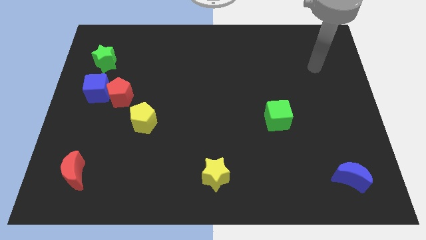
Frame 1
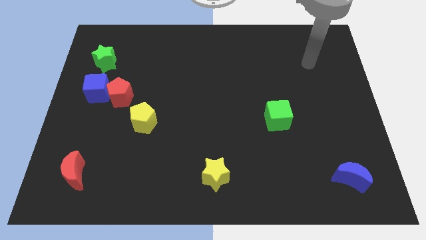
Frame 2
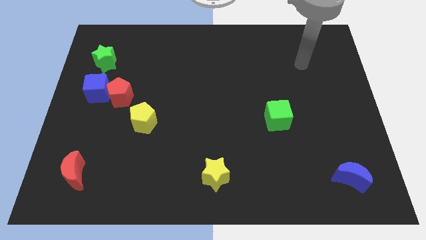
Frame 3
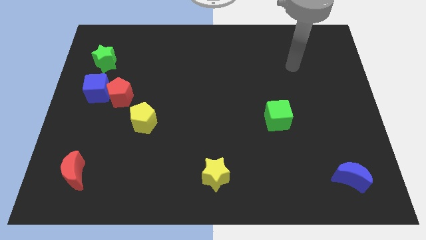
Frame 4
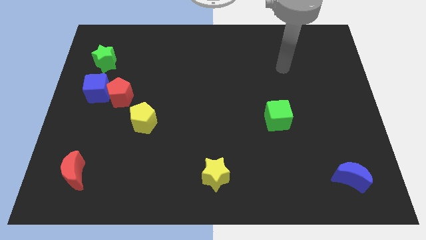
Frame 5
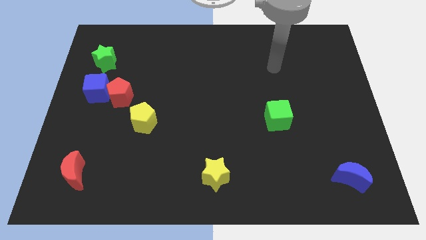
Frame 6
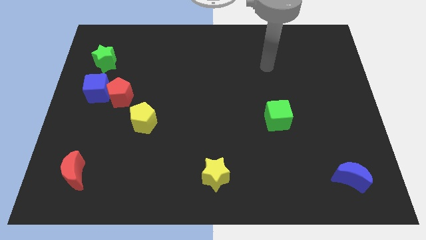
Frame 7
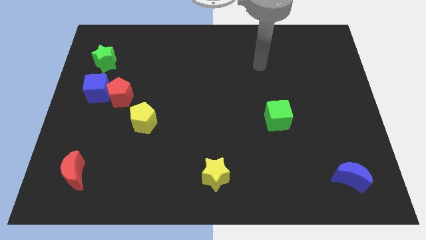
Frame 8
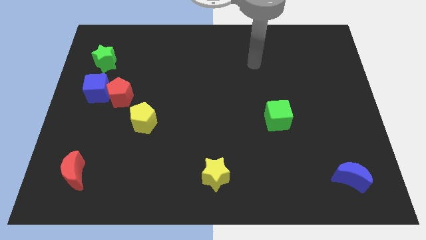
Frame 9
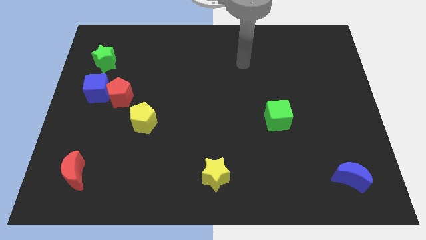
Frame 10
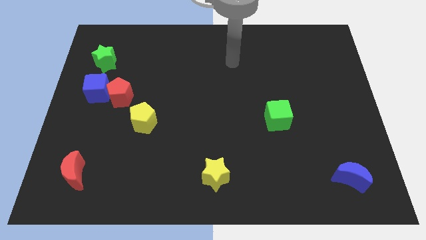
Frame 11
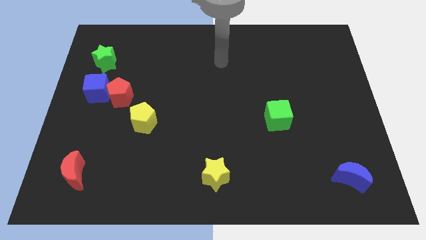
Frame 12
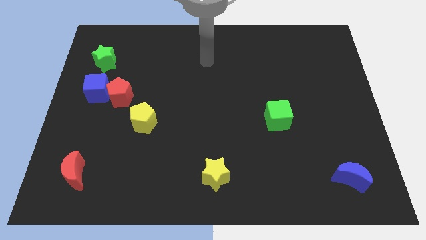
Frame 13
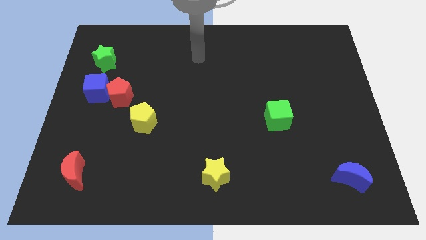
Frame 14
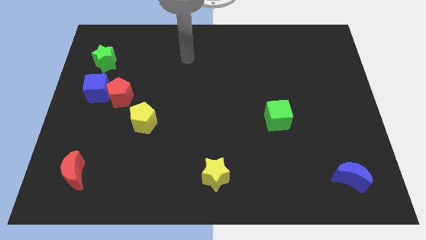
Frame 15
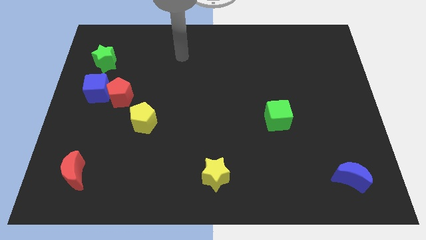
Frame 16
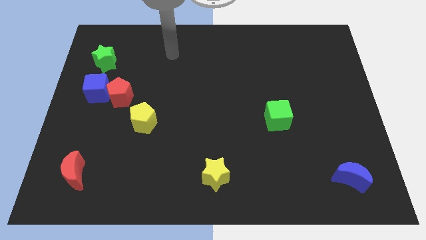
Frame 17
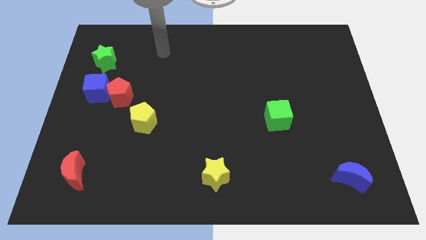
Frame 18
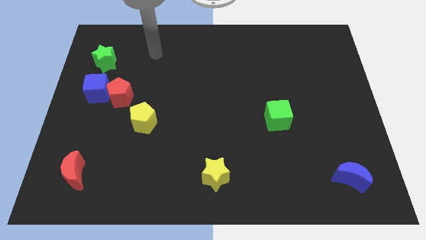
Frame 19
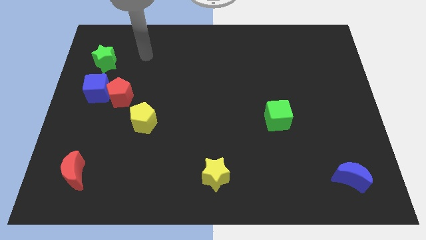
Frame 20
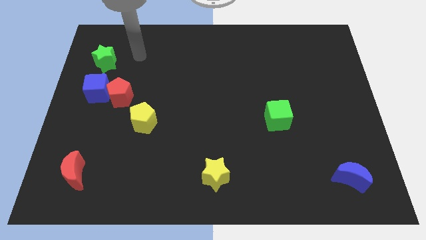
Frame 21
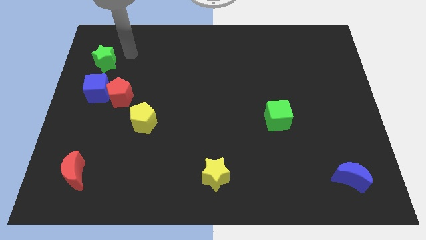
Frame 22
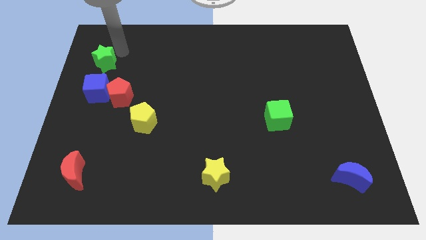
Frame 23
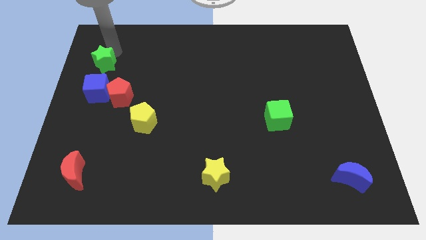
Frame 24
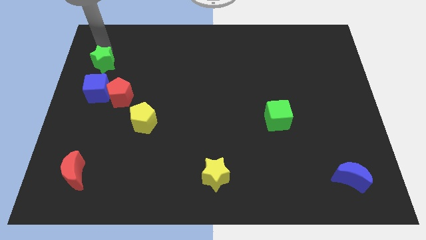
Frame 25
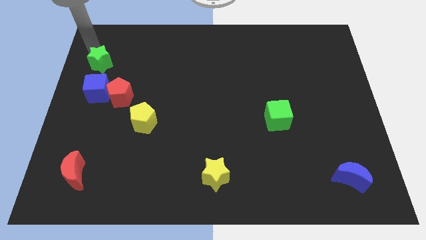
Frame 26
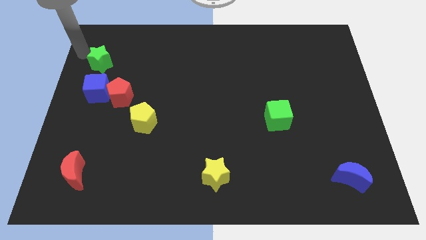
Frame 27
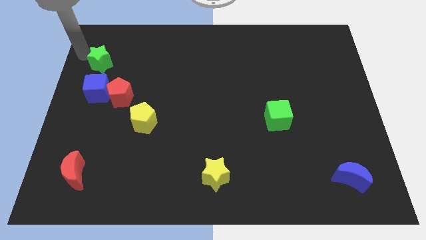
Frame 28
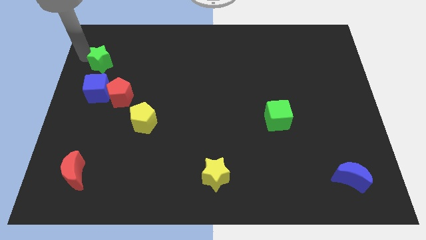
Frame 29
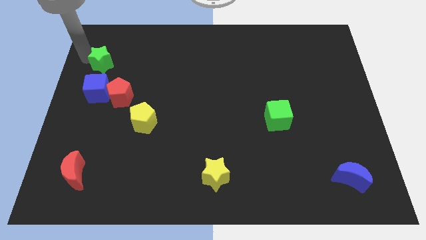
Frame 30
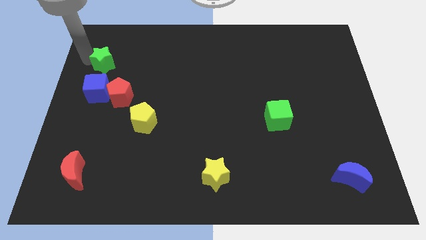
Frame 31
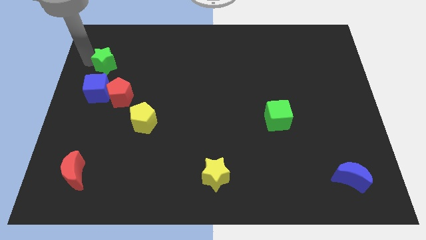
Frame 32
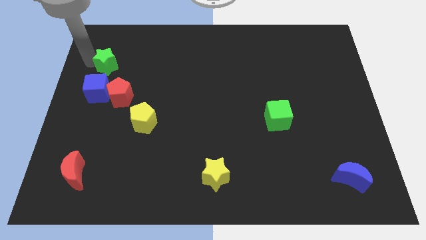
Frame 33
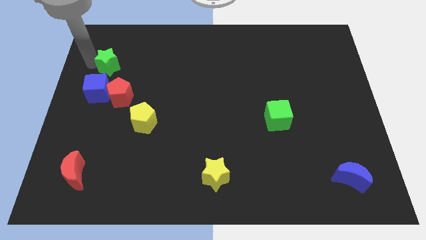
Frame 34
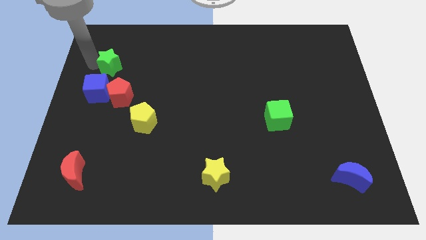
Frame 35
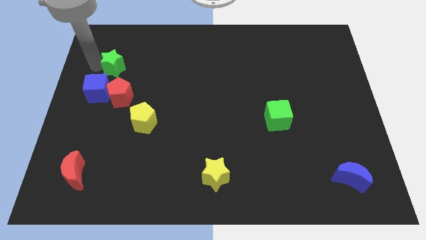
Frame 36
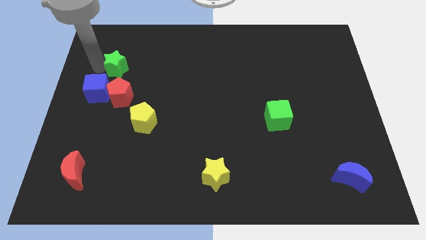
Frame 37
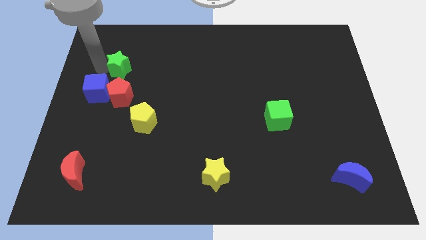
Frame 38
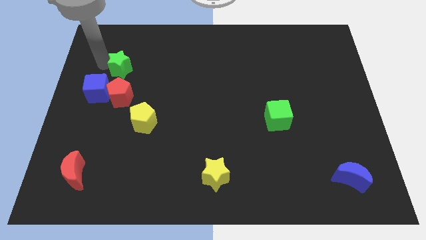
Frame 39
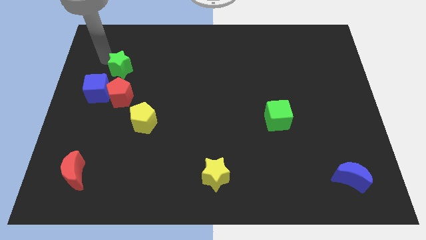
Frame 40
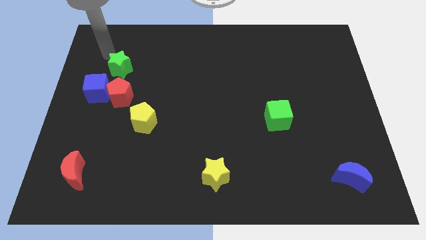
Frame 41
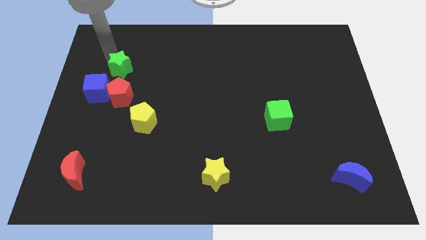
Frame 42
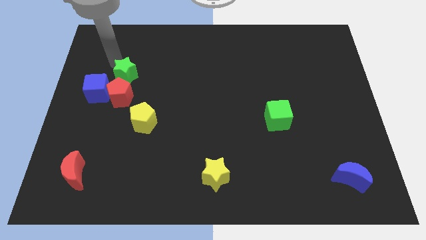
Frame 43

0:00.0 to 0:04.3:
slightly slide the green star downwards and to the right diagonally

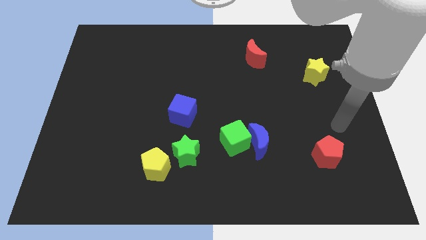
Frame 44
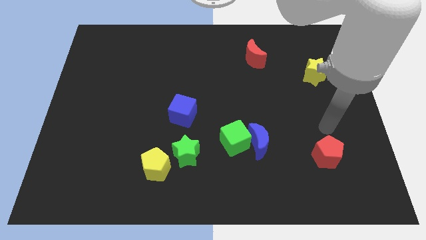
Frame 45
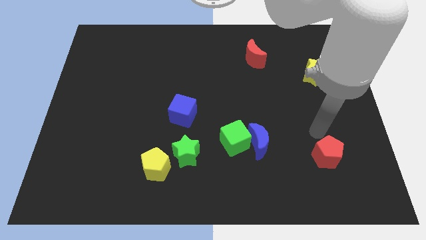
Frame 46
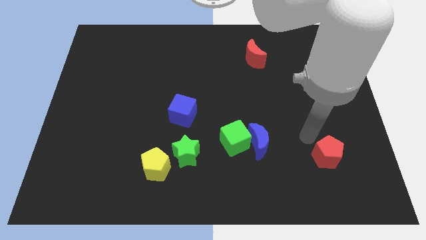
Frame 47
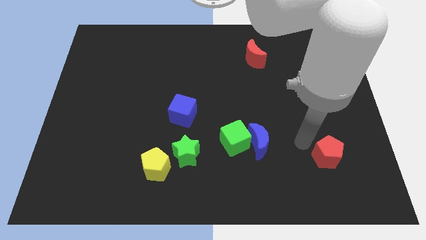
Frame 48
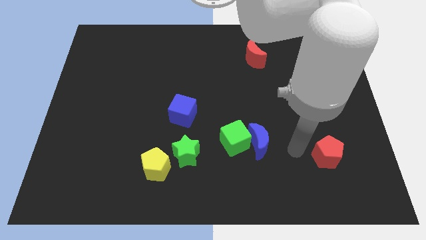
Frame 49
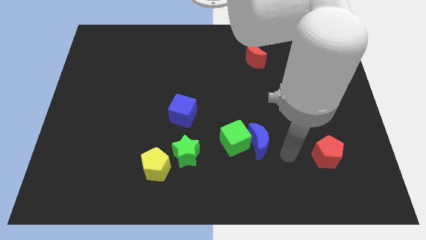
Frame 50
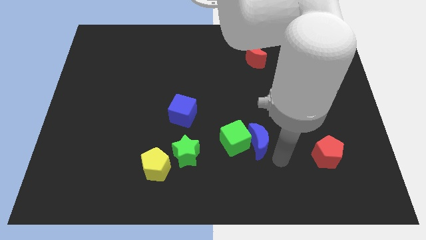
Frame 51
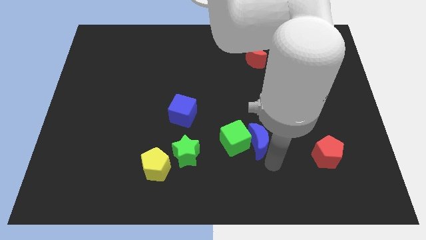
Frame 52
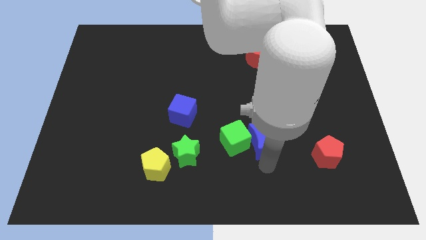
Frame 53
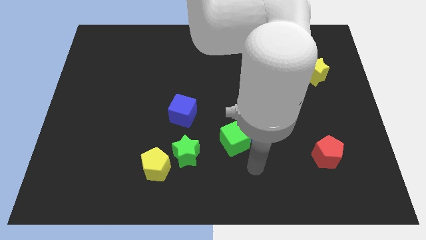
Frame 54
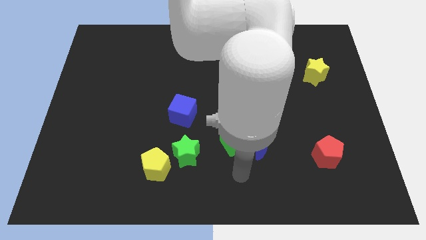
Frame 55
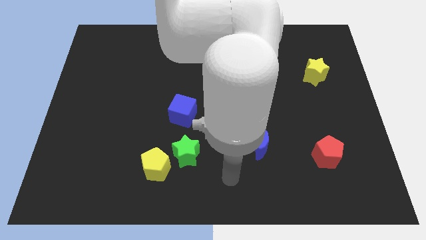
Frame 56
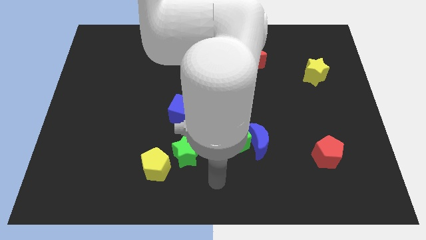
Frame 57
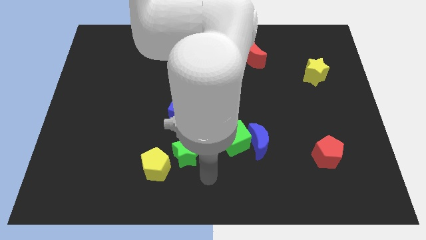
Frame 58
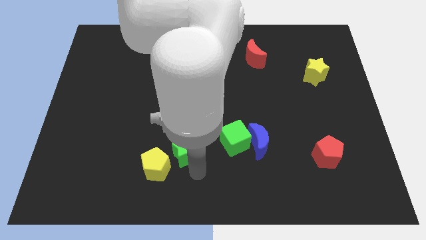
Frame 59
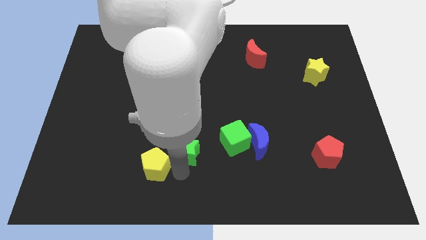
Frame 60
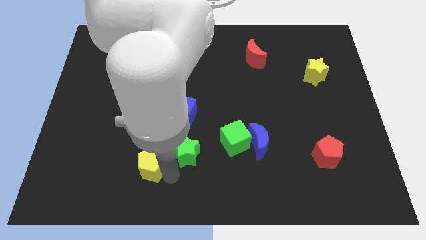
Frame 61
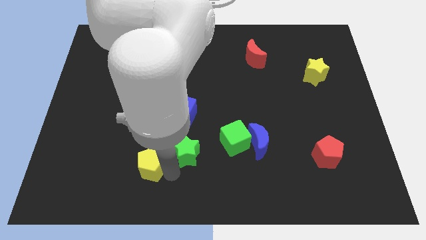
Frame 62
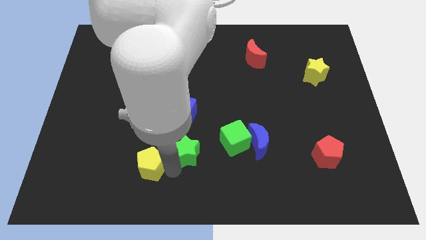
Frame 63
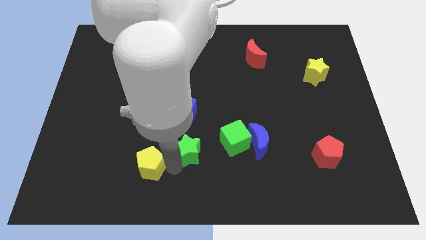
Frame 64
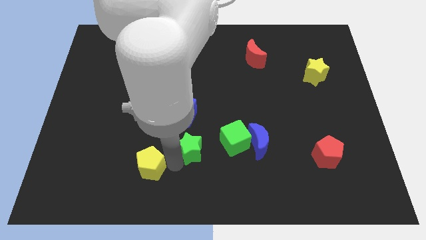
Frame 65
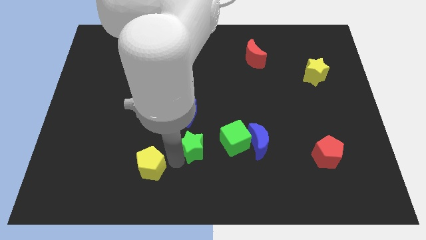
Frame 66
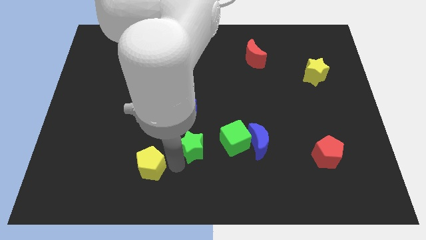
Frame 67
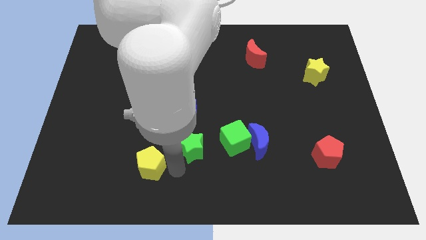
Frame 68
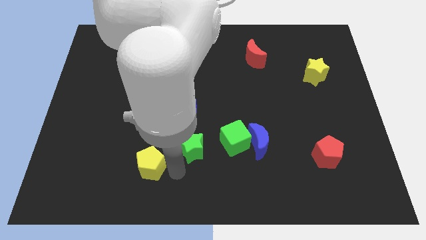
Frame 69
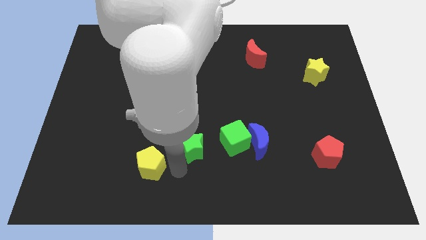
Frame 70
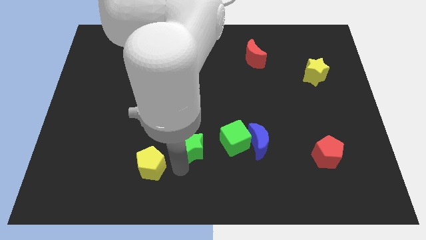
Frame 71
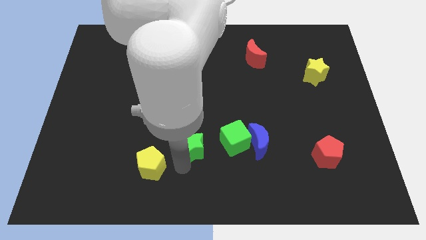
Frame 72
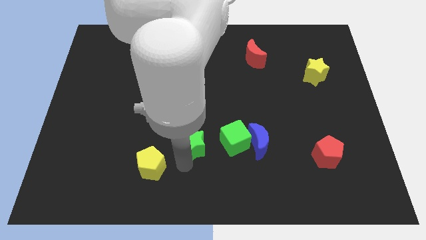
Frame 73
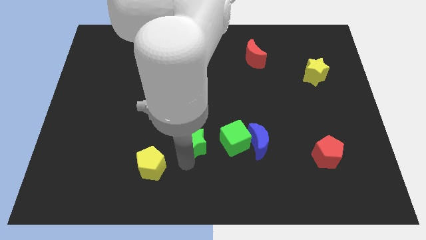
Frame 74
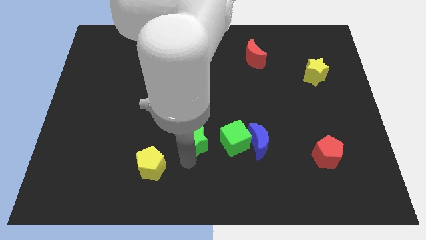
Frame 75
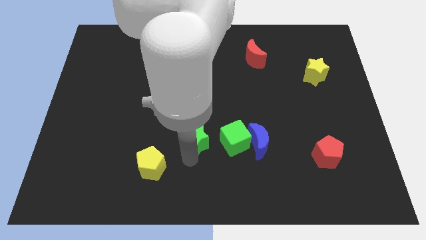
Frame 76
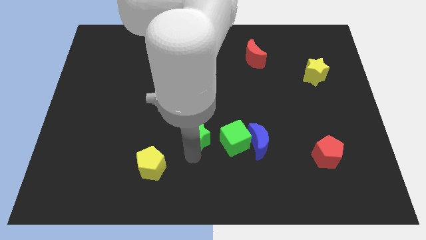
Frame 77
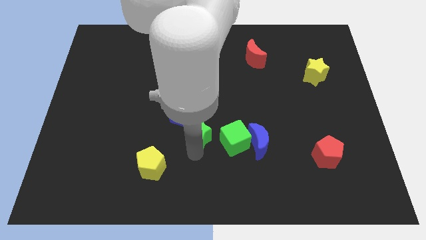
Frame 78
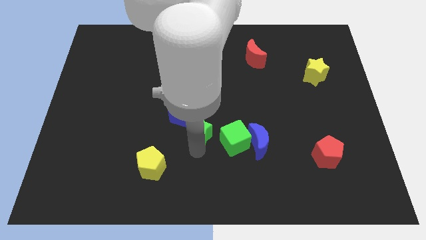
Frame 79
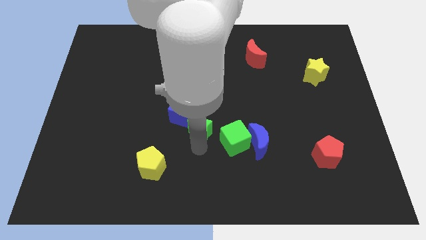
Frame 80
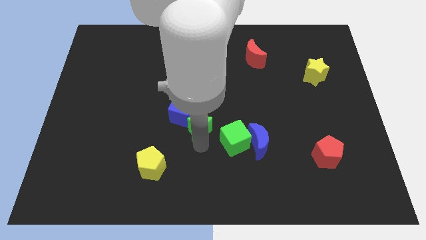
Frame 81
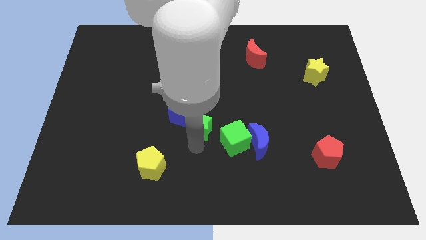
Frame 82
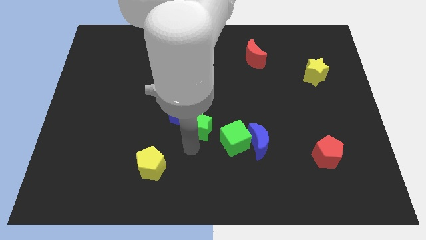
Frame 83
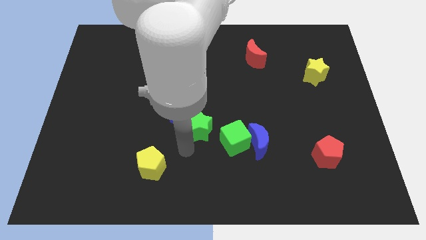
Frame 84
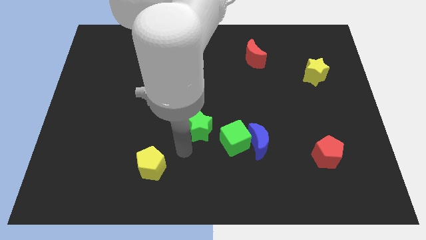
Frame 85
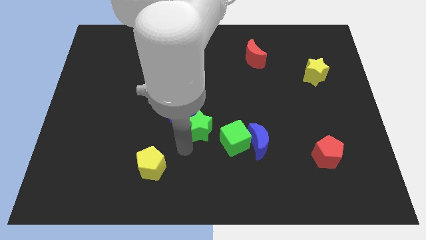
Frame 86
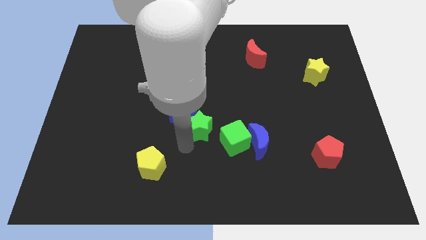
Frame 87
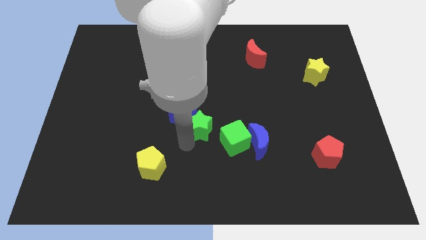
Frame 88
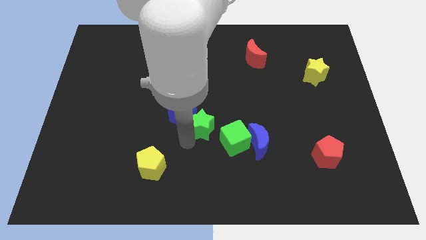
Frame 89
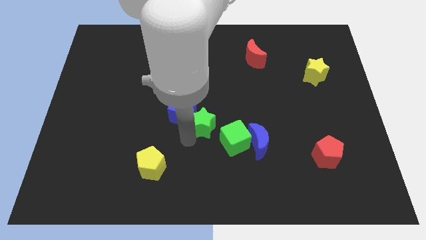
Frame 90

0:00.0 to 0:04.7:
slightly push the green star upwards
